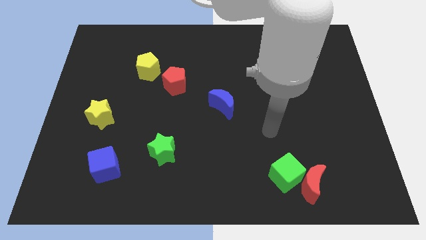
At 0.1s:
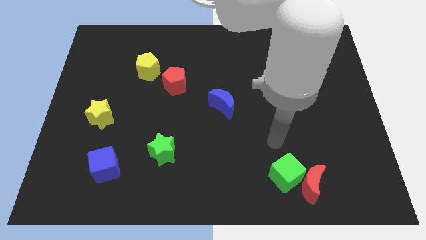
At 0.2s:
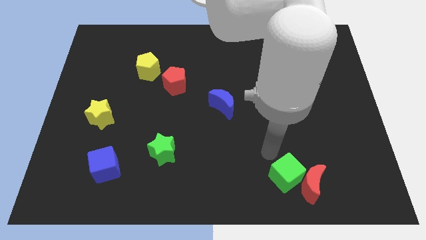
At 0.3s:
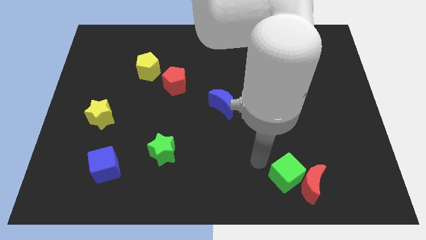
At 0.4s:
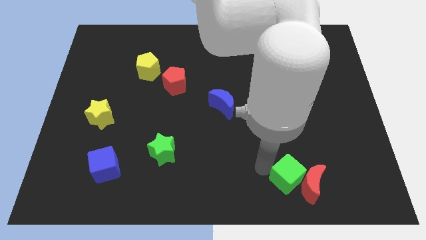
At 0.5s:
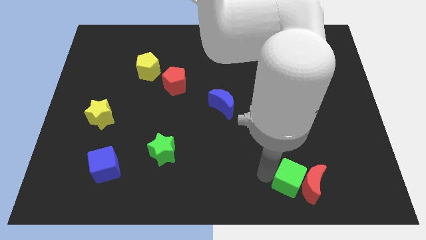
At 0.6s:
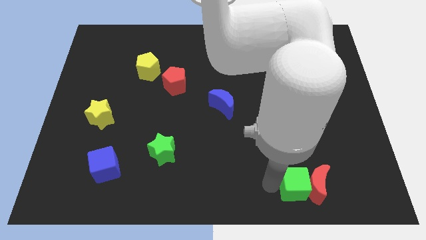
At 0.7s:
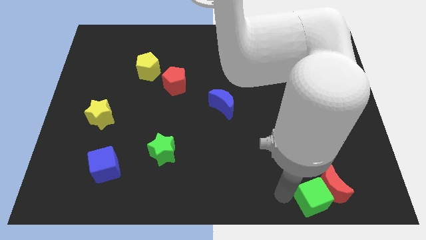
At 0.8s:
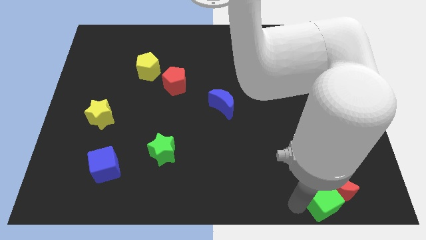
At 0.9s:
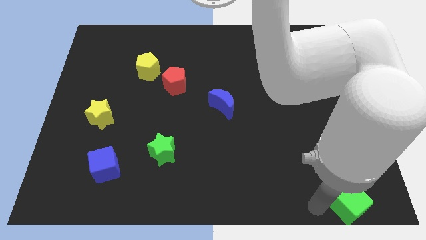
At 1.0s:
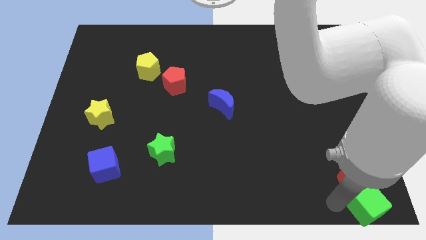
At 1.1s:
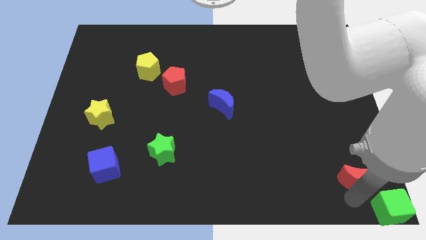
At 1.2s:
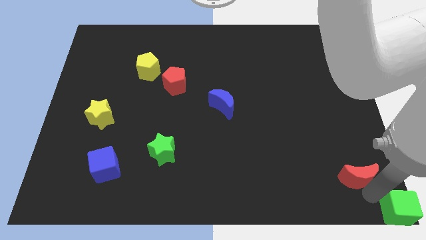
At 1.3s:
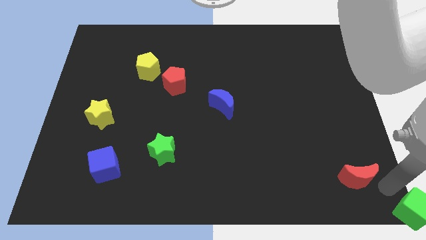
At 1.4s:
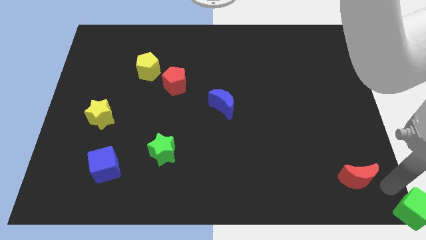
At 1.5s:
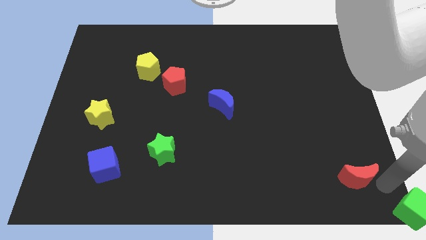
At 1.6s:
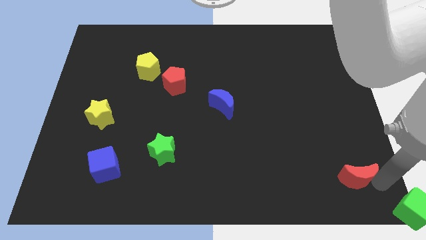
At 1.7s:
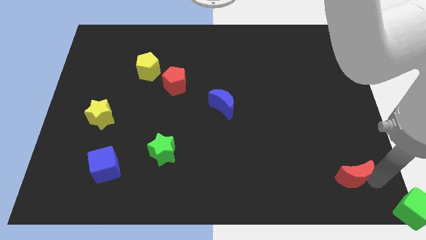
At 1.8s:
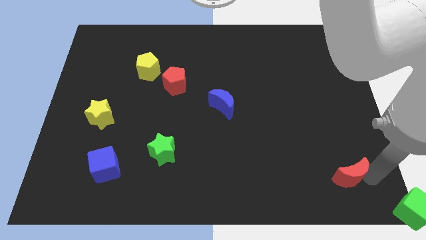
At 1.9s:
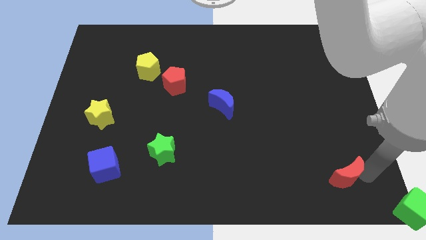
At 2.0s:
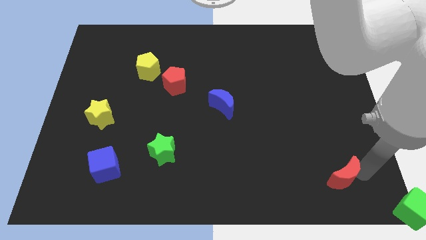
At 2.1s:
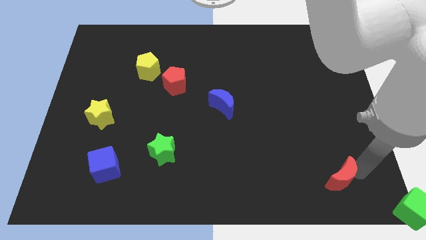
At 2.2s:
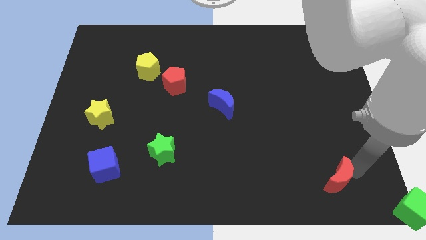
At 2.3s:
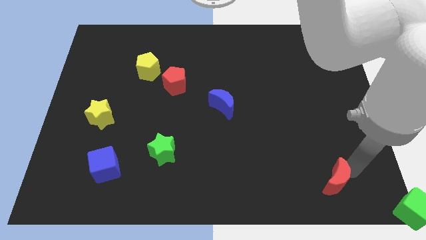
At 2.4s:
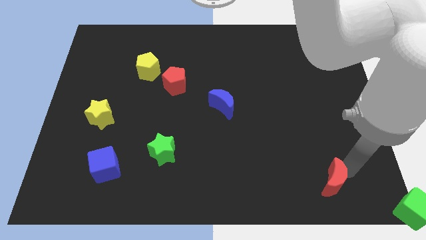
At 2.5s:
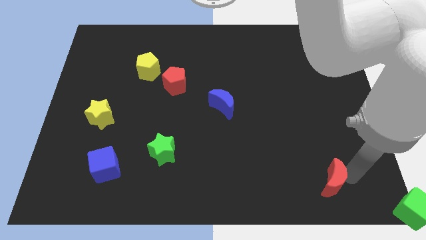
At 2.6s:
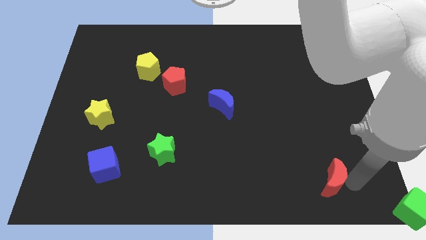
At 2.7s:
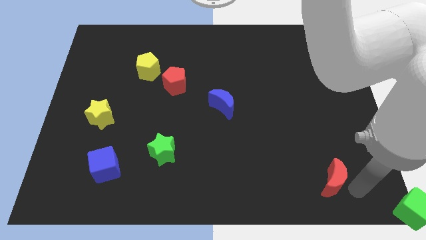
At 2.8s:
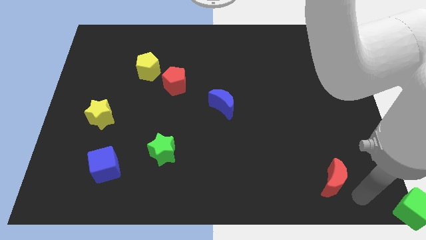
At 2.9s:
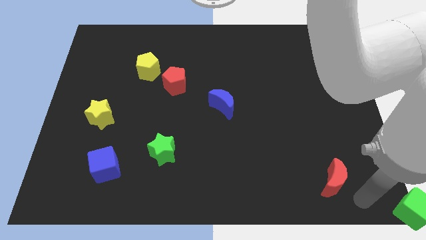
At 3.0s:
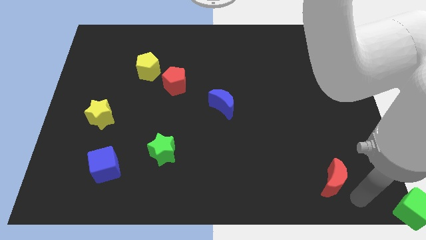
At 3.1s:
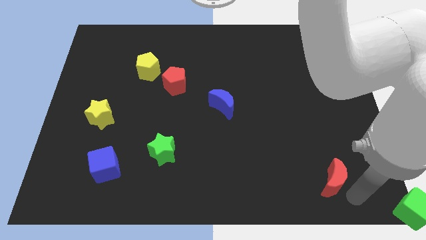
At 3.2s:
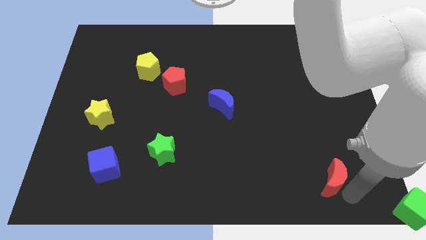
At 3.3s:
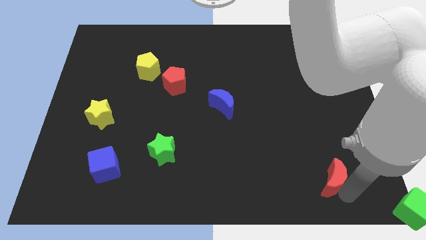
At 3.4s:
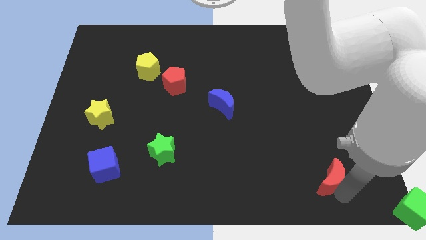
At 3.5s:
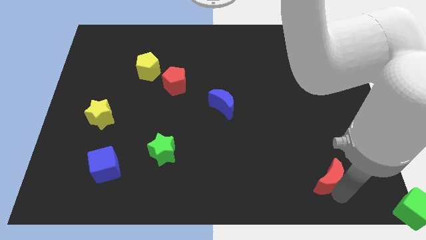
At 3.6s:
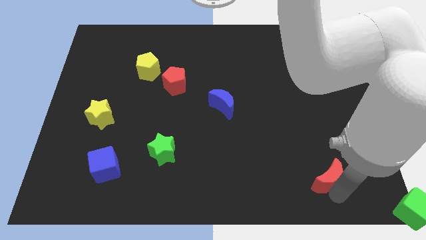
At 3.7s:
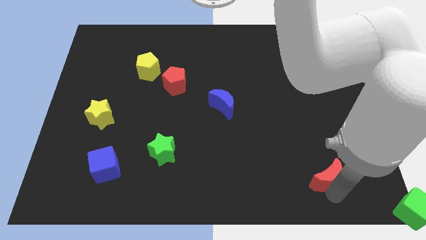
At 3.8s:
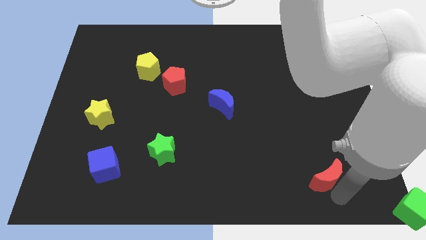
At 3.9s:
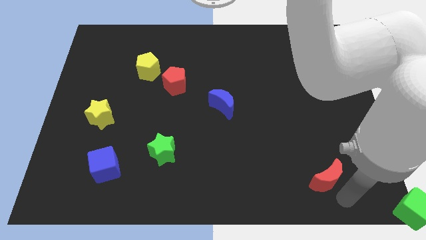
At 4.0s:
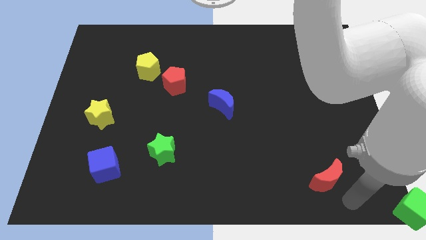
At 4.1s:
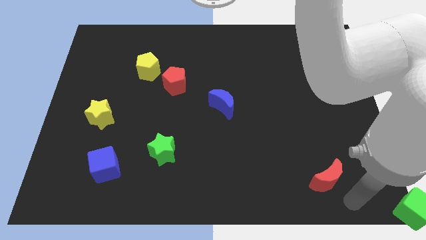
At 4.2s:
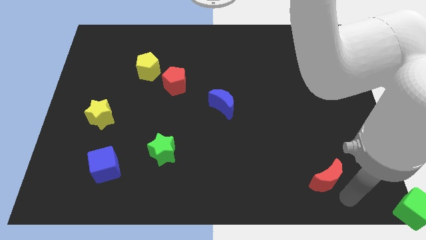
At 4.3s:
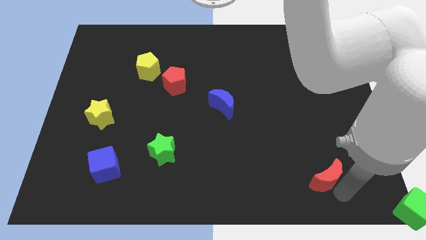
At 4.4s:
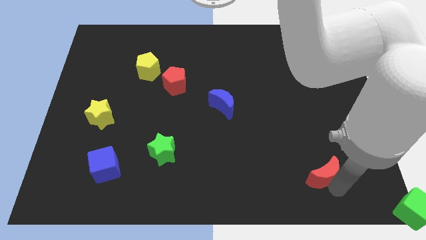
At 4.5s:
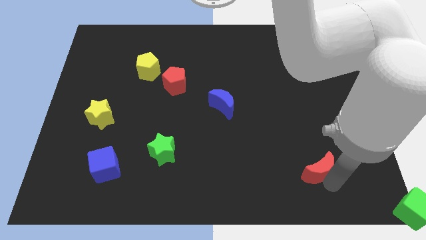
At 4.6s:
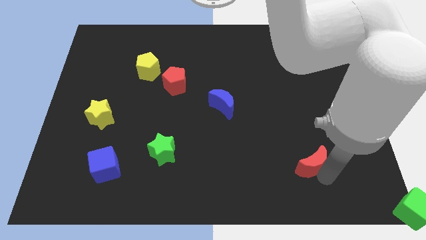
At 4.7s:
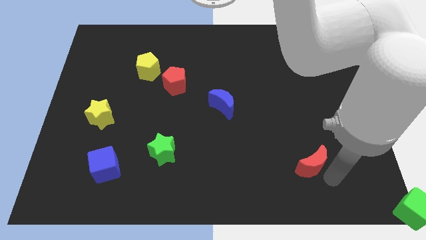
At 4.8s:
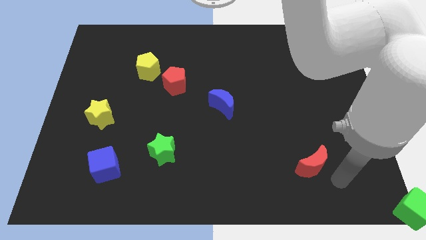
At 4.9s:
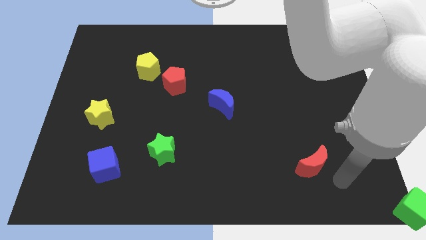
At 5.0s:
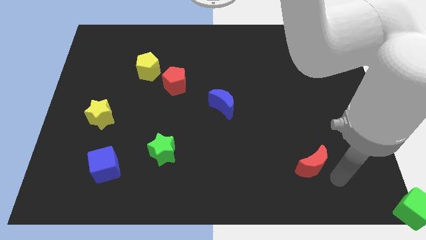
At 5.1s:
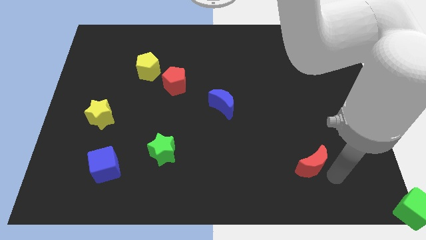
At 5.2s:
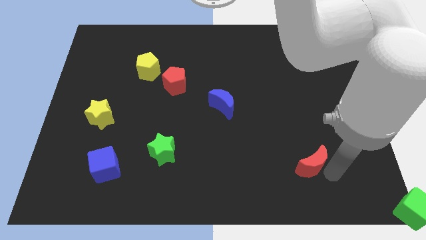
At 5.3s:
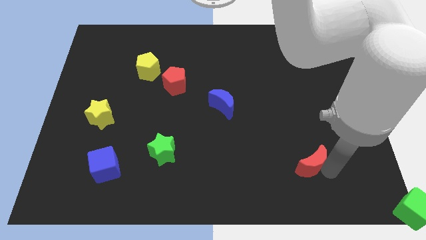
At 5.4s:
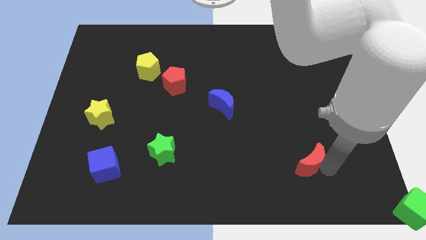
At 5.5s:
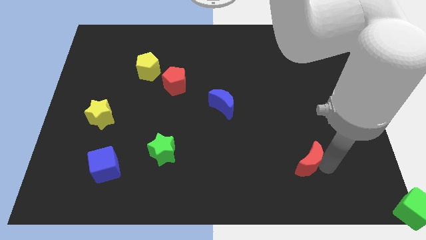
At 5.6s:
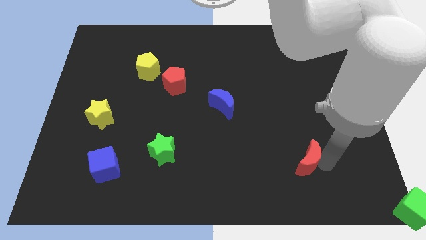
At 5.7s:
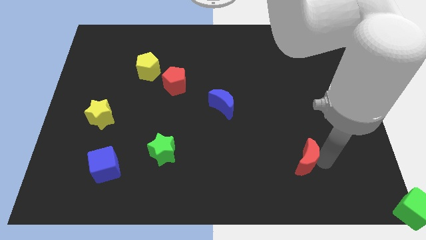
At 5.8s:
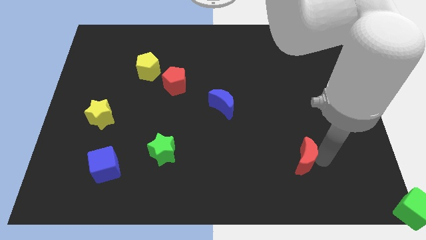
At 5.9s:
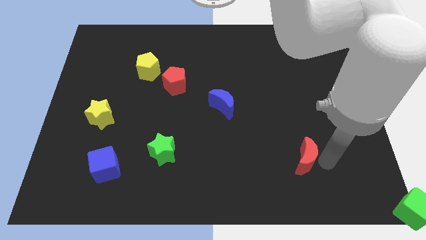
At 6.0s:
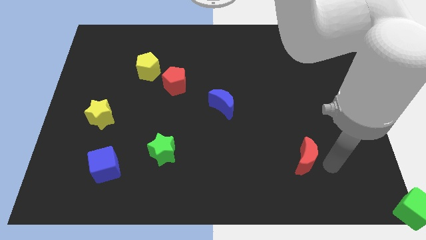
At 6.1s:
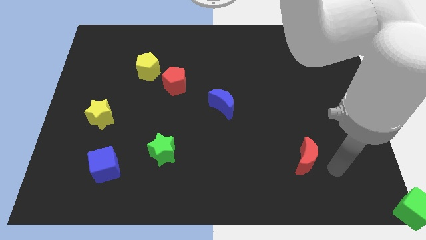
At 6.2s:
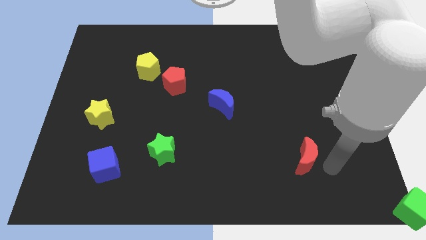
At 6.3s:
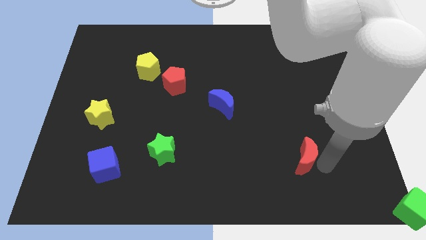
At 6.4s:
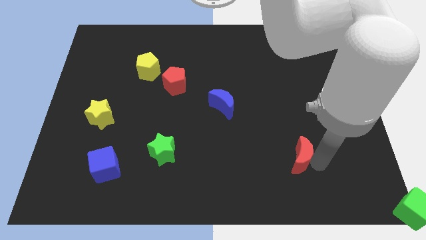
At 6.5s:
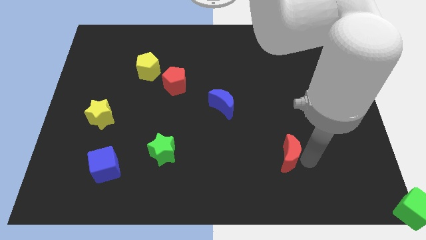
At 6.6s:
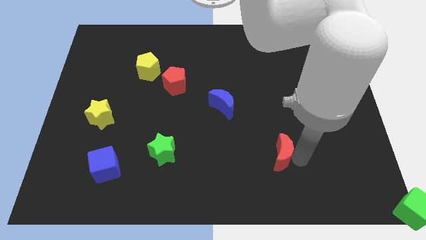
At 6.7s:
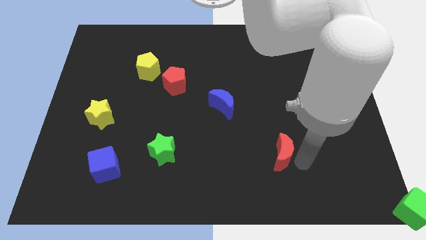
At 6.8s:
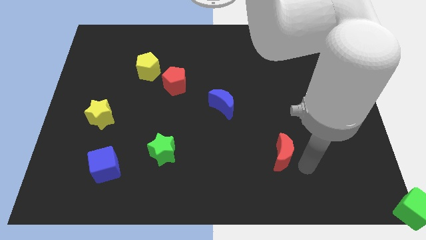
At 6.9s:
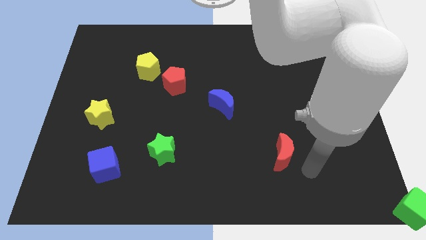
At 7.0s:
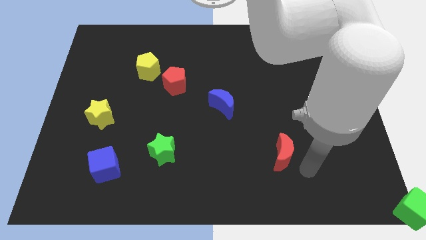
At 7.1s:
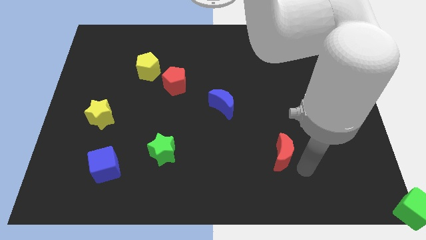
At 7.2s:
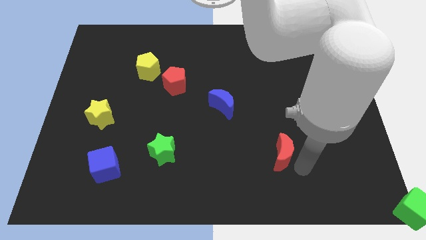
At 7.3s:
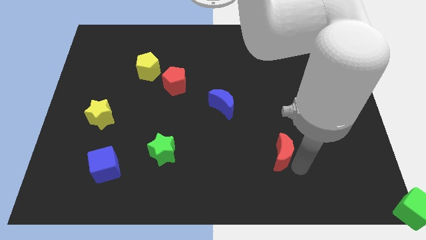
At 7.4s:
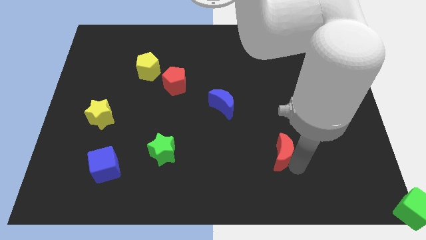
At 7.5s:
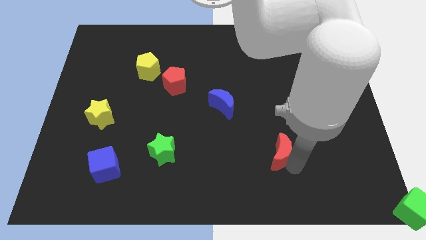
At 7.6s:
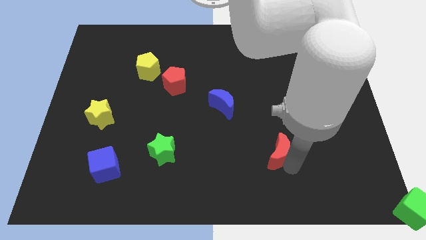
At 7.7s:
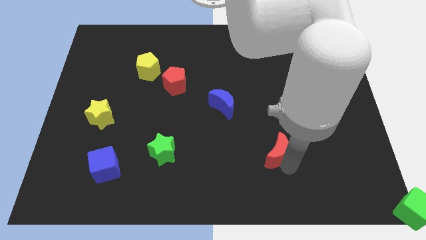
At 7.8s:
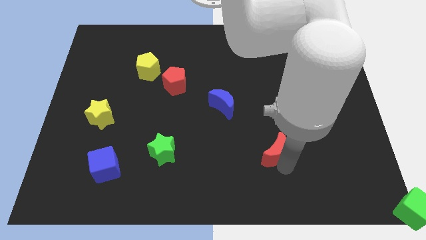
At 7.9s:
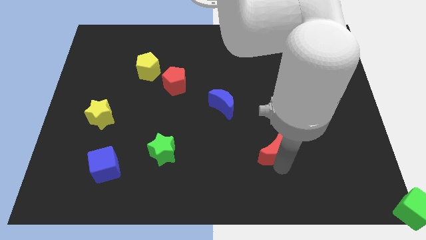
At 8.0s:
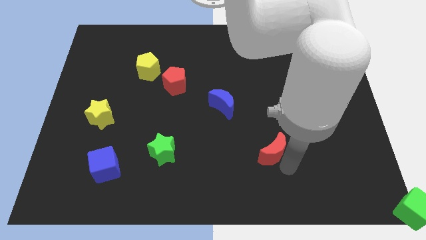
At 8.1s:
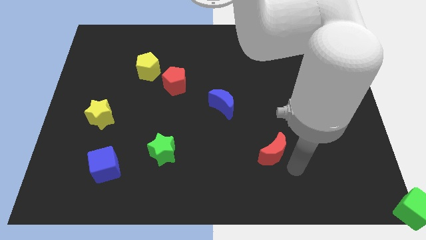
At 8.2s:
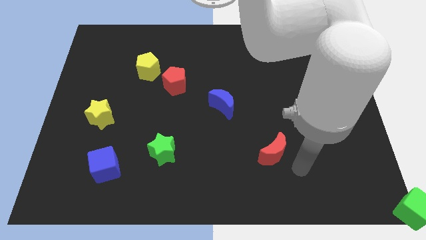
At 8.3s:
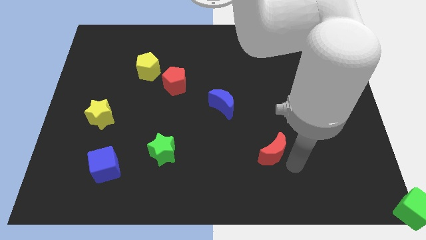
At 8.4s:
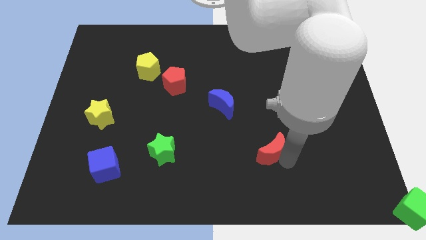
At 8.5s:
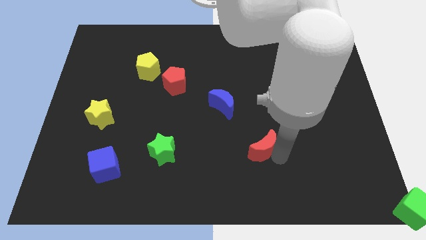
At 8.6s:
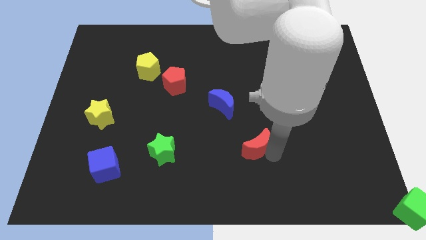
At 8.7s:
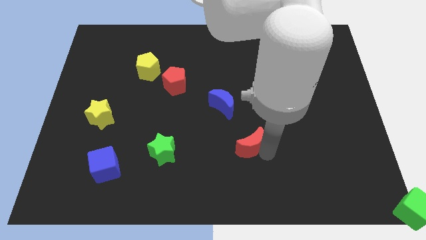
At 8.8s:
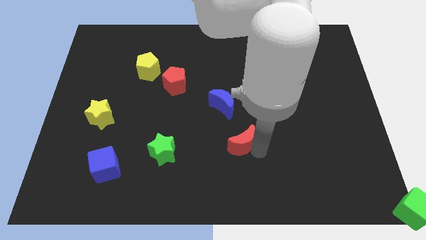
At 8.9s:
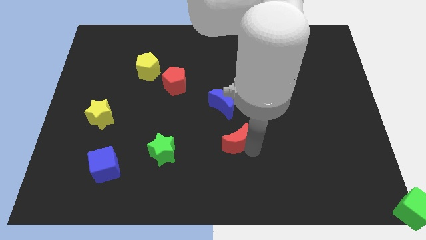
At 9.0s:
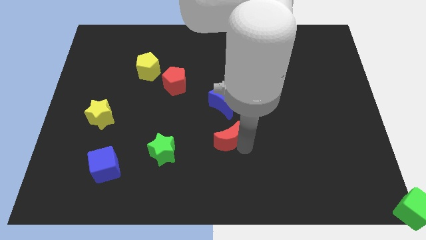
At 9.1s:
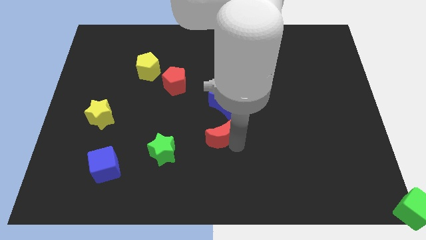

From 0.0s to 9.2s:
slide the red moon up and left diagonally
